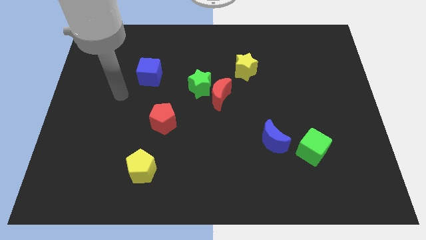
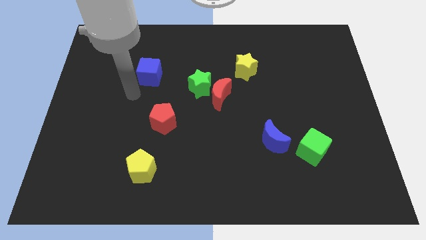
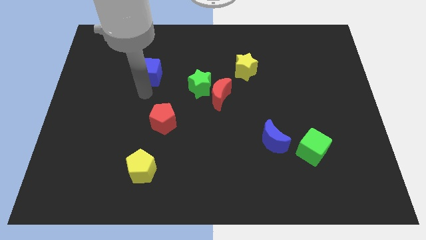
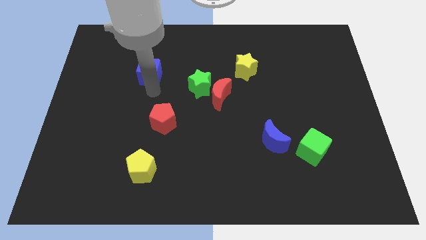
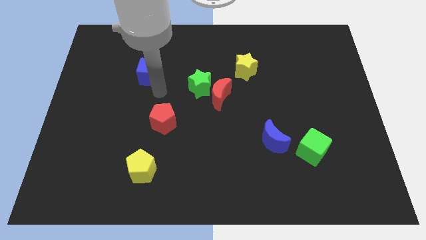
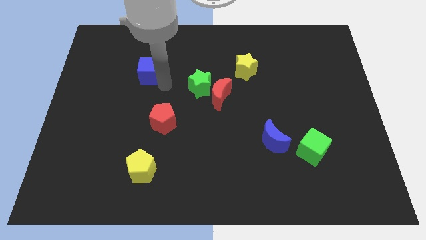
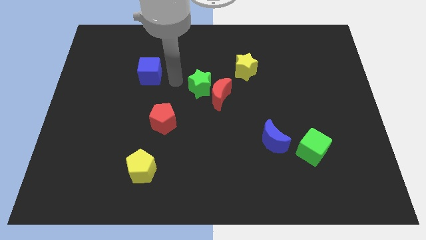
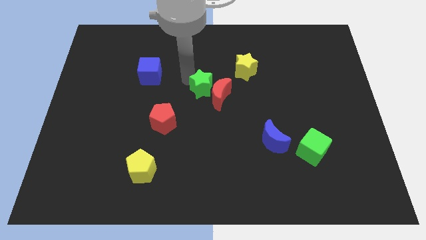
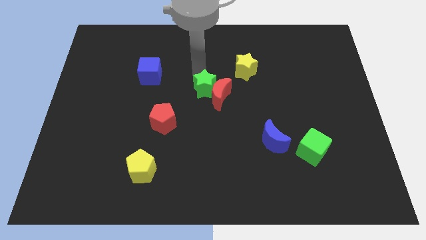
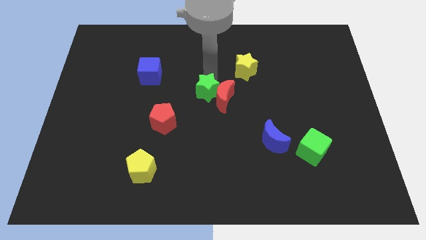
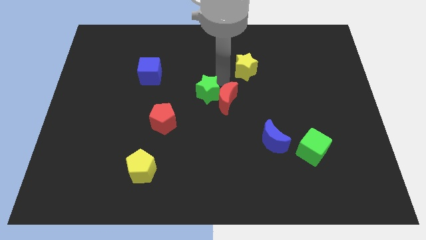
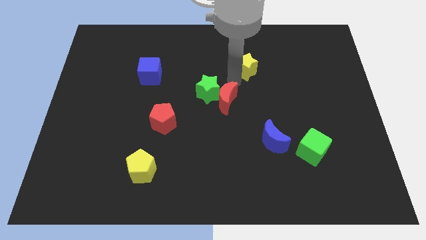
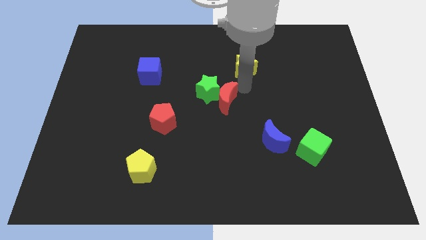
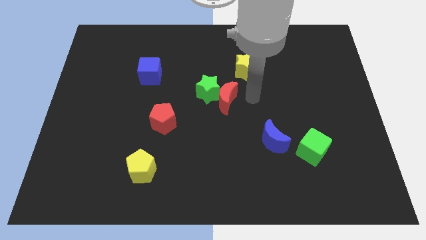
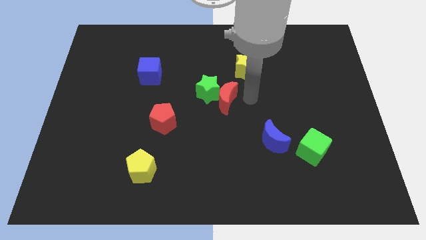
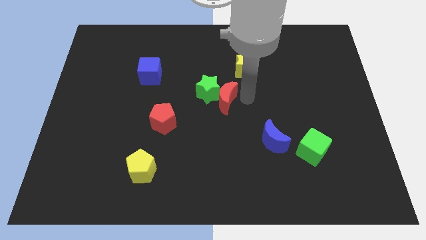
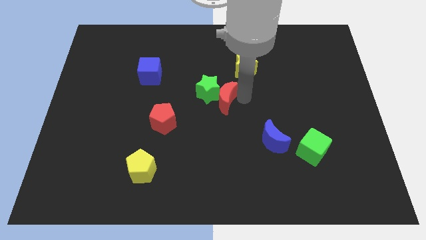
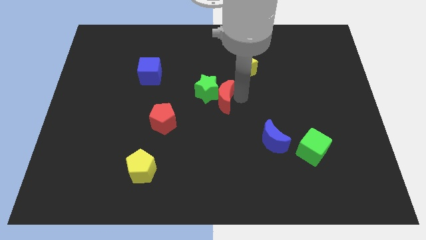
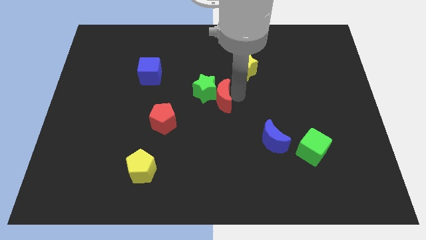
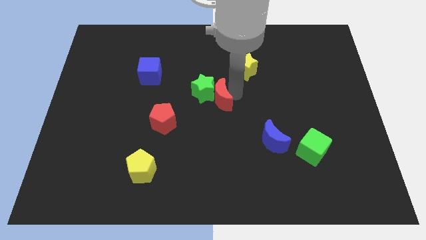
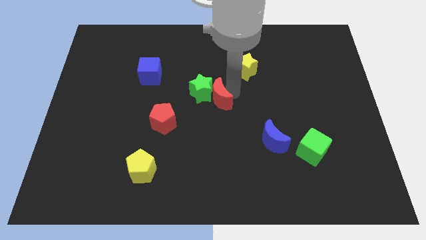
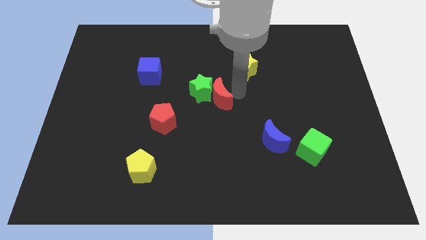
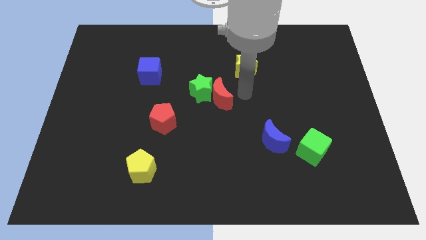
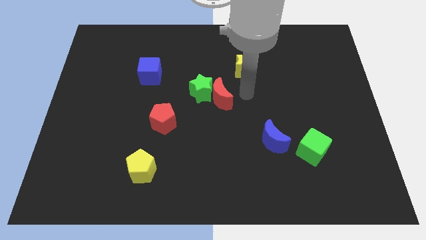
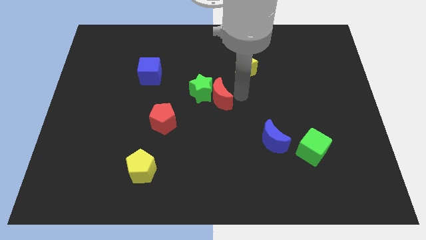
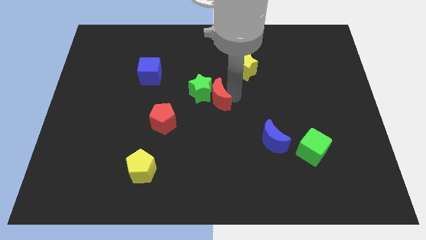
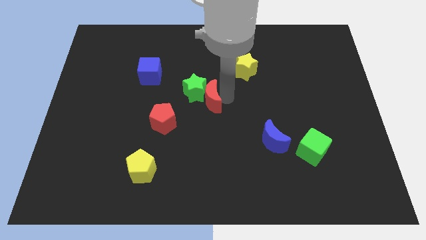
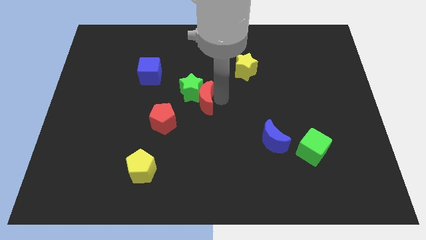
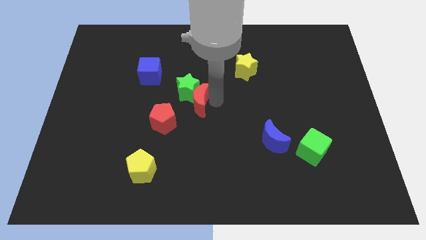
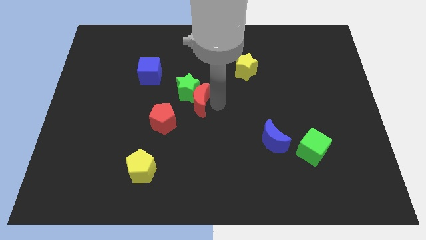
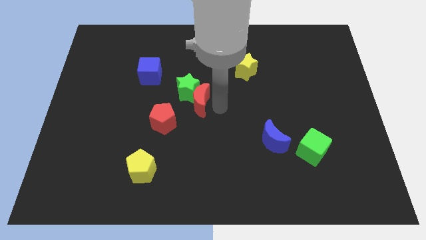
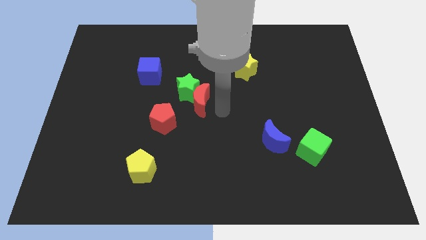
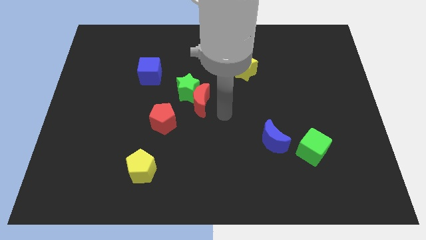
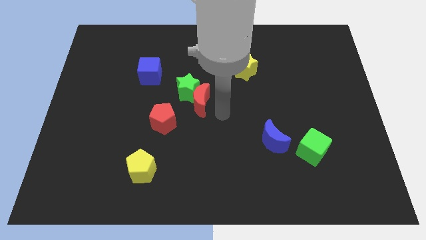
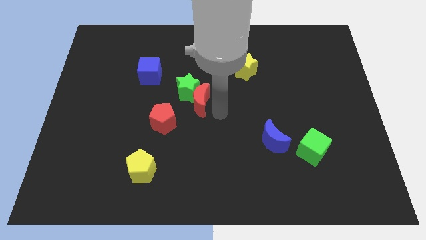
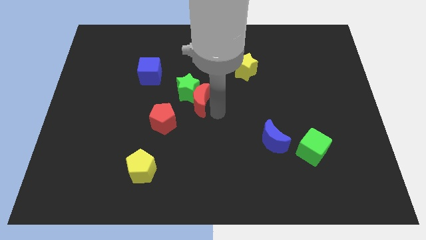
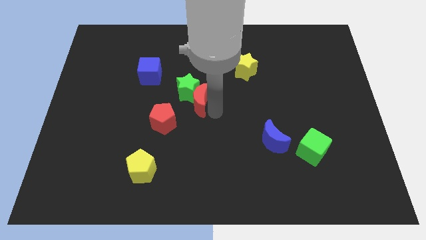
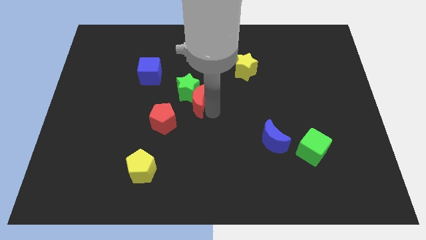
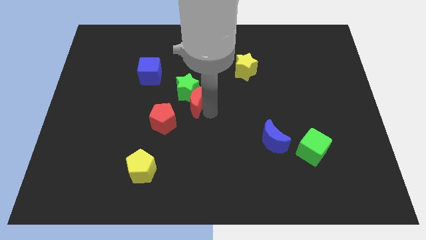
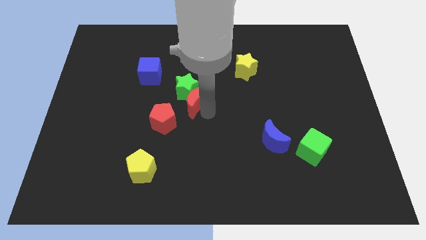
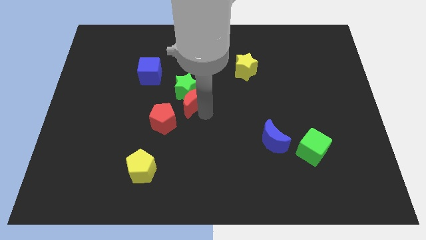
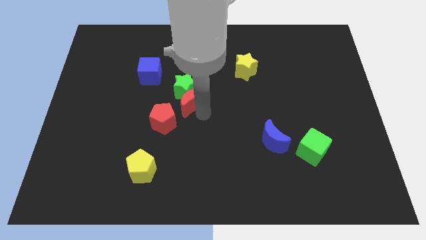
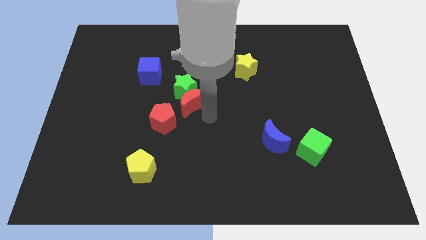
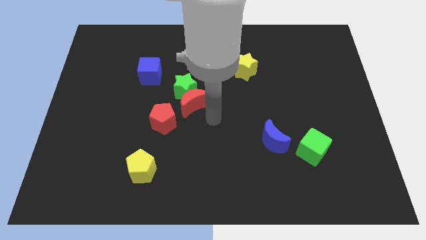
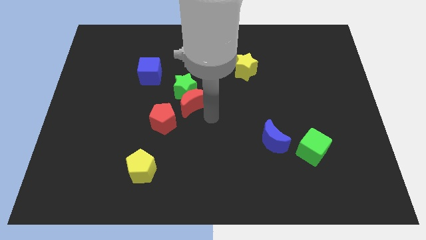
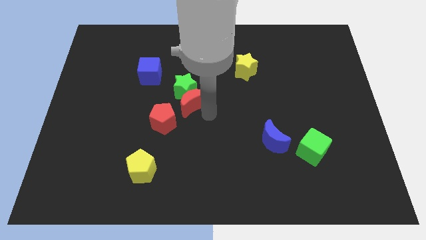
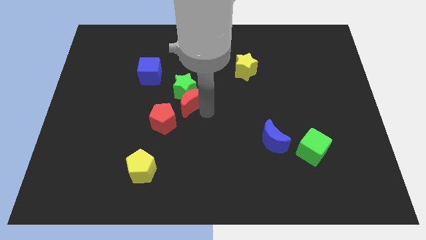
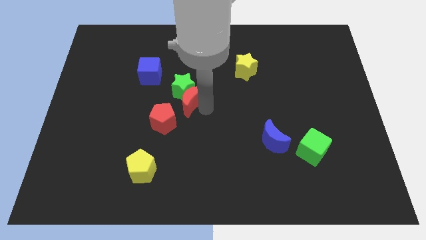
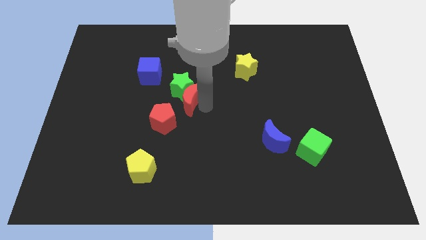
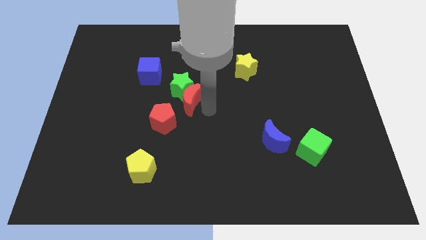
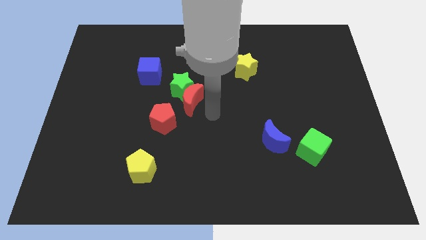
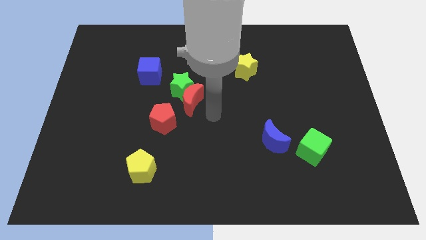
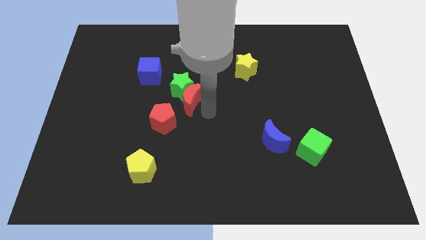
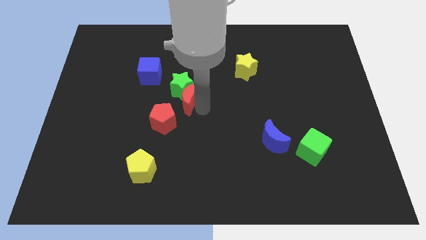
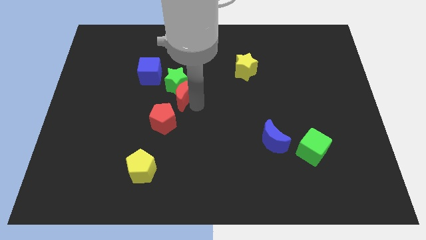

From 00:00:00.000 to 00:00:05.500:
move the red moon to the top side of the red pentagon

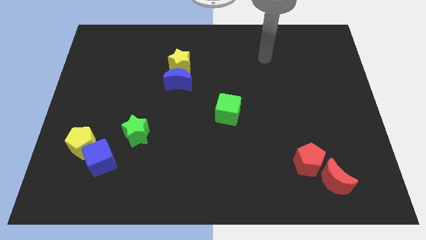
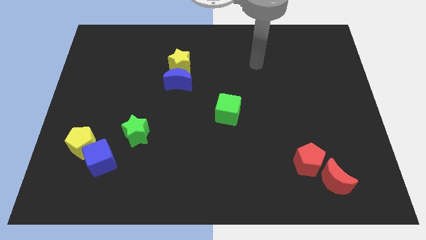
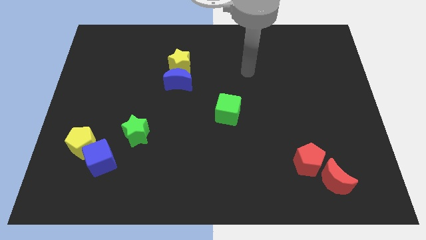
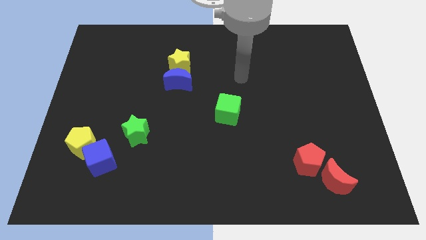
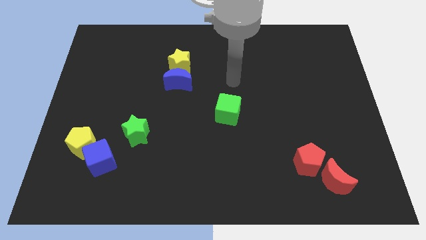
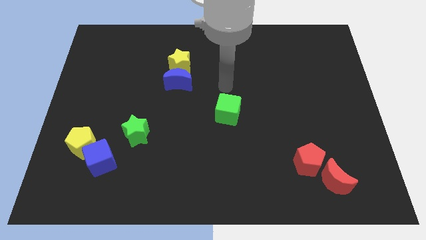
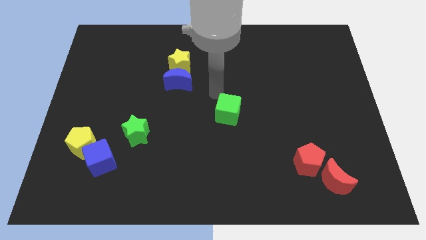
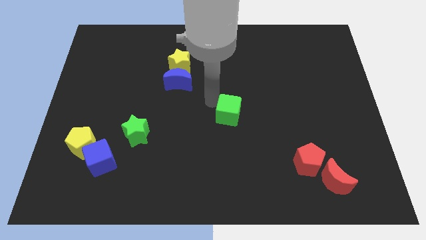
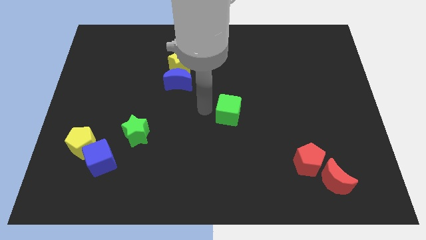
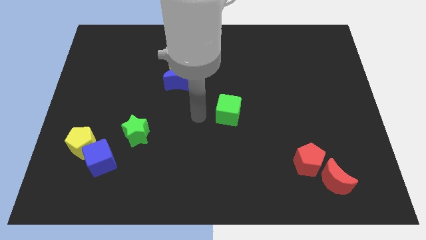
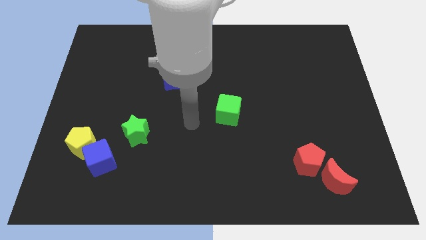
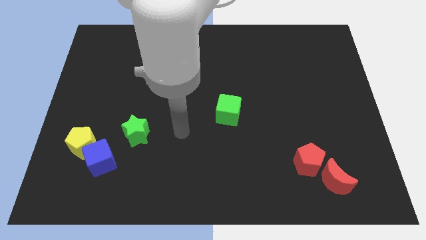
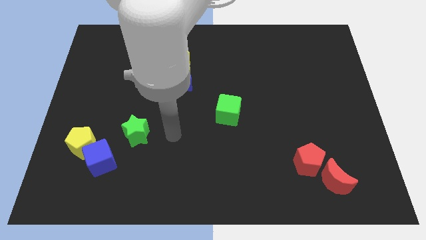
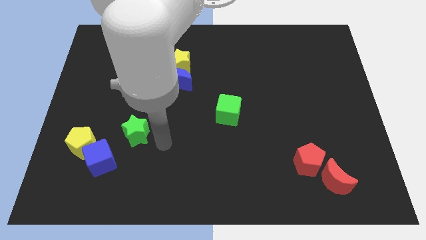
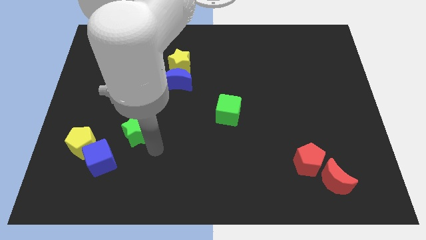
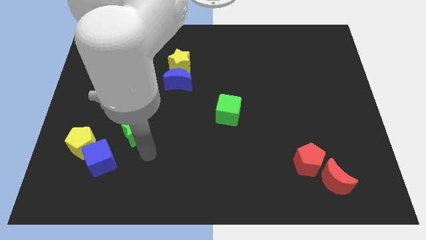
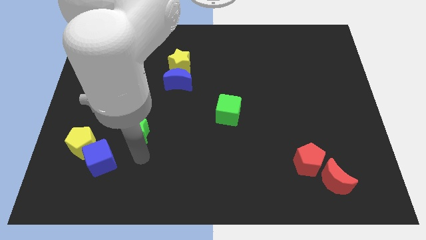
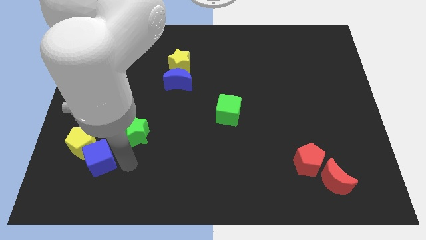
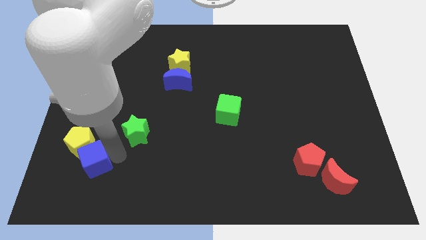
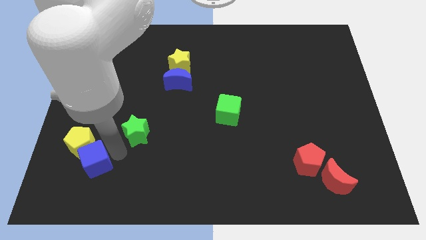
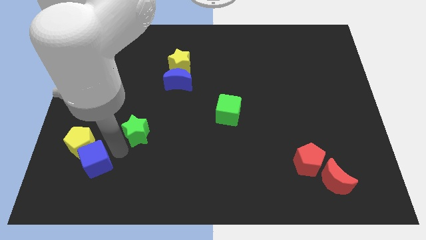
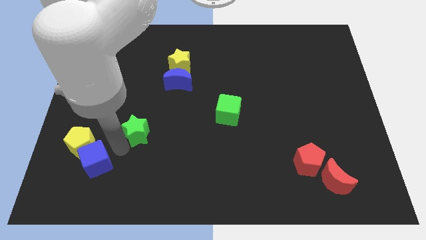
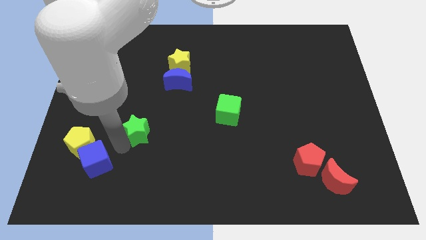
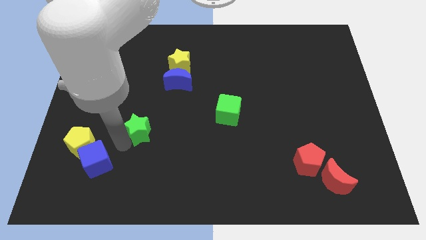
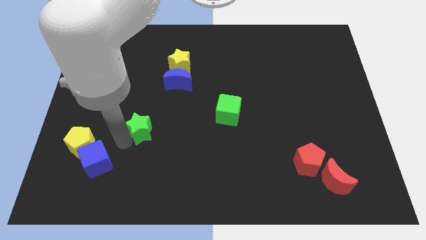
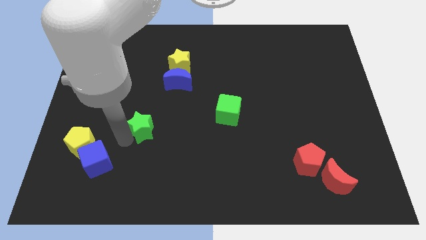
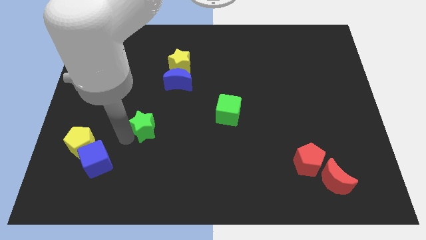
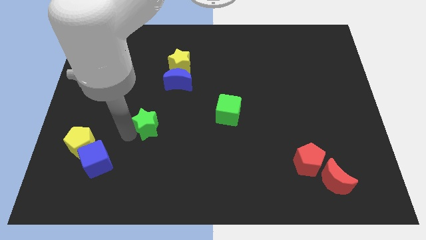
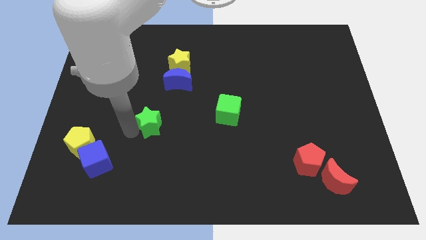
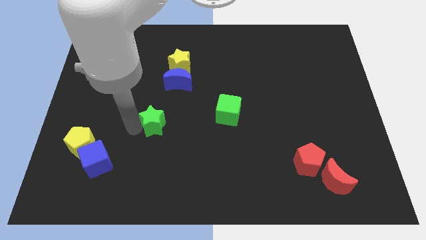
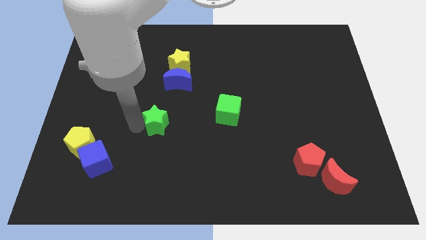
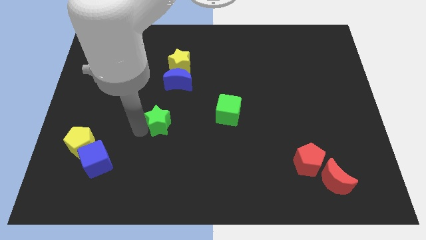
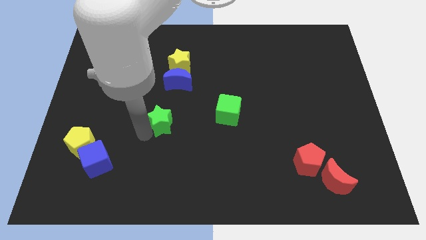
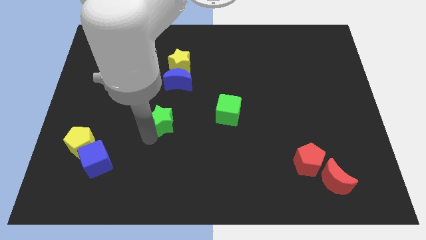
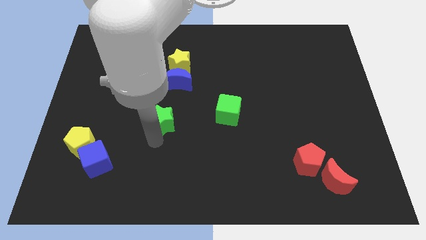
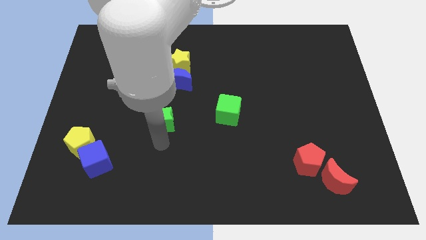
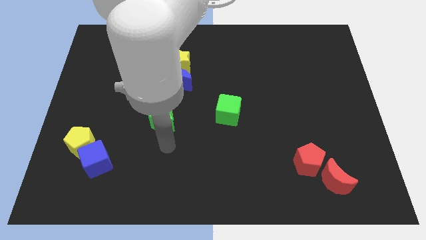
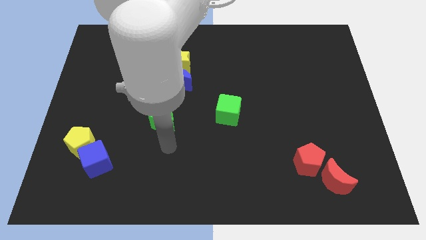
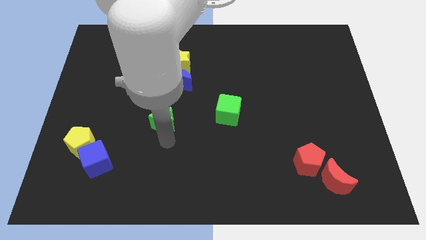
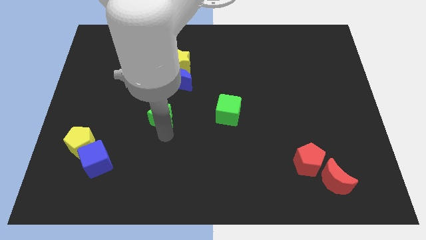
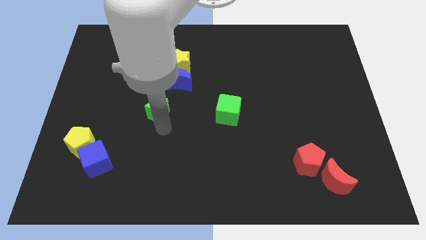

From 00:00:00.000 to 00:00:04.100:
move the green star diagonally down and to the left of the blue moon
